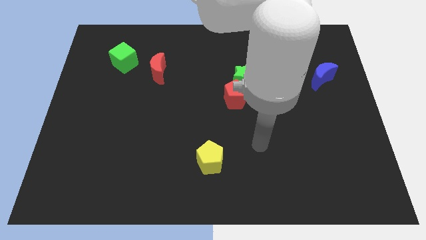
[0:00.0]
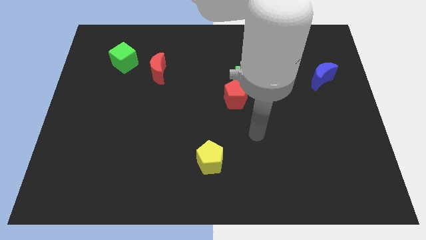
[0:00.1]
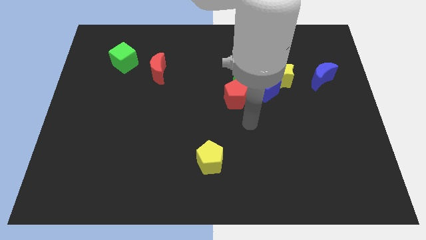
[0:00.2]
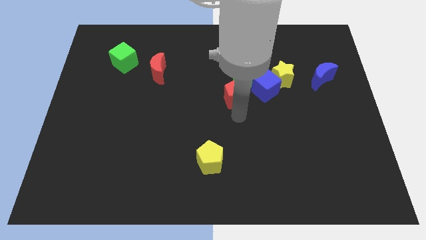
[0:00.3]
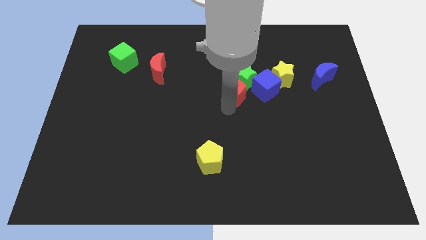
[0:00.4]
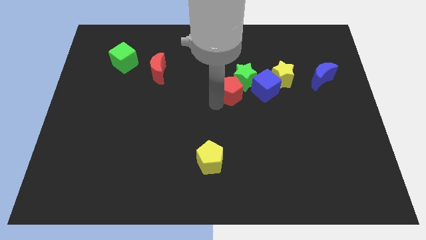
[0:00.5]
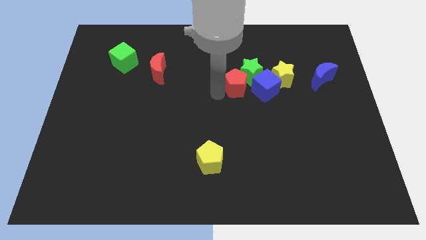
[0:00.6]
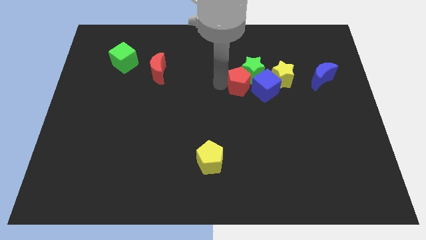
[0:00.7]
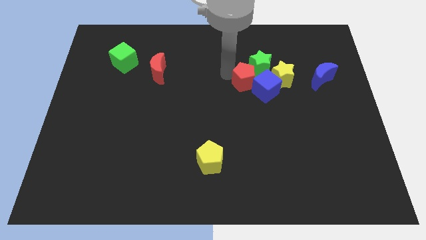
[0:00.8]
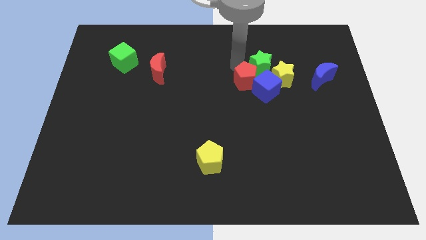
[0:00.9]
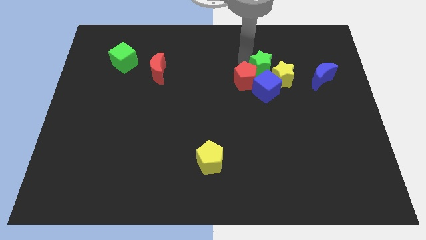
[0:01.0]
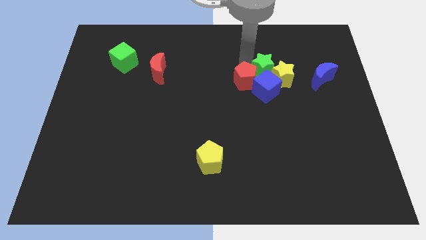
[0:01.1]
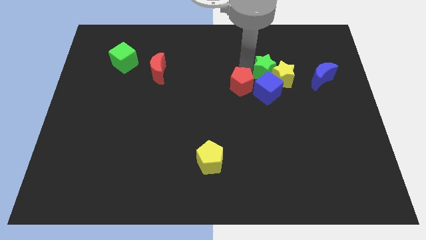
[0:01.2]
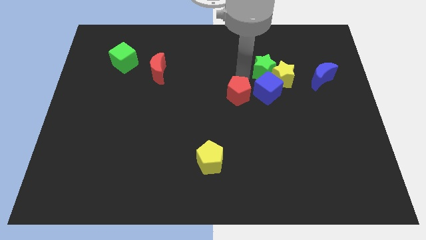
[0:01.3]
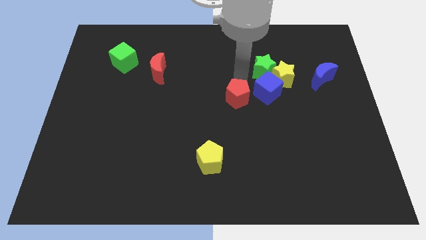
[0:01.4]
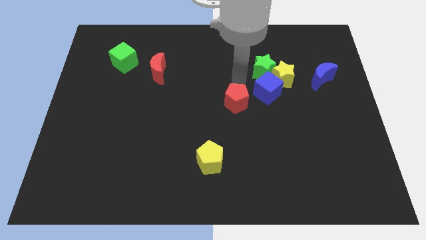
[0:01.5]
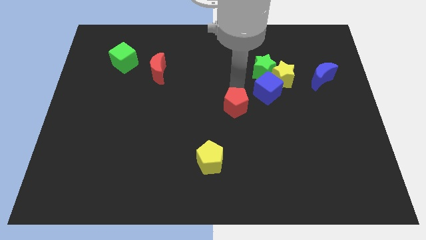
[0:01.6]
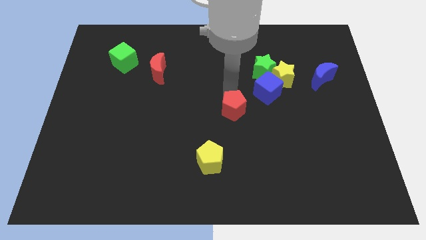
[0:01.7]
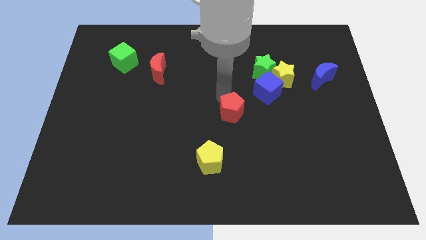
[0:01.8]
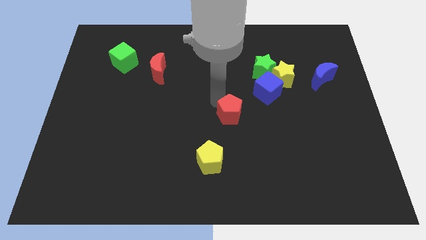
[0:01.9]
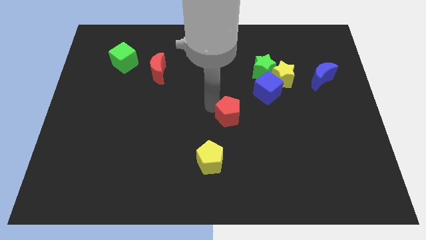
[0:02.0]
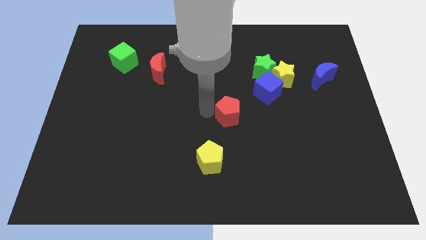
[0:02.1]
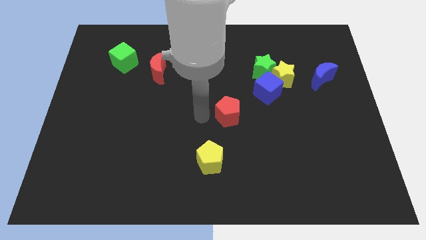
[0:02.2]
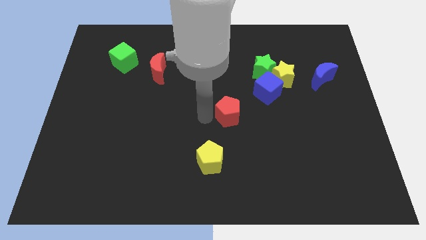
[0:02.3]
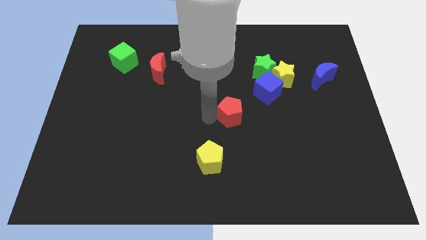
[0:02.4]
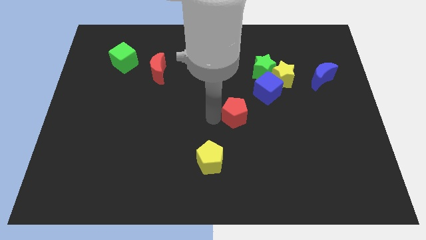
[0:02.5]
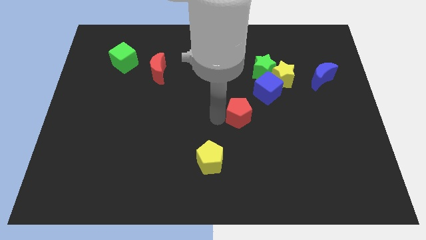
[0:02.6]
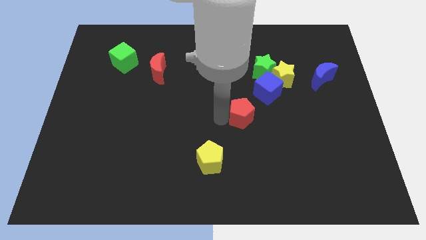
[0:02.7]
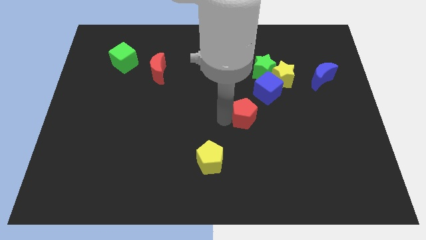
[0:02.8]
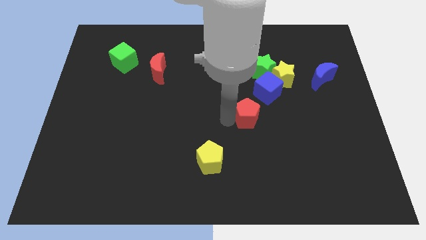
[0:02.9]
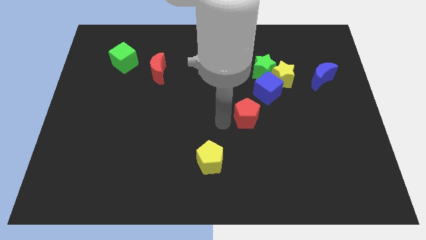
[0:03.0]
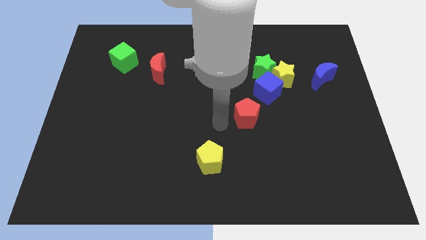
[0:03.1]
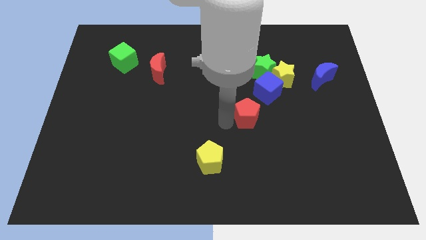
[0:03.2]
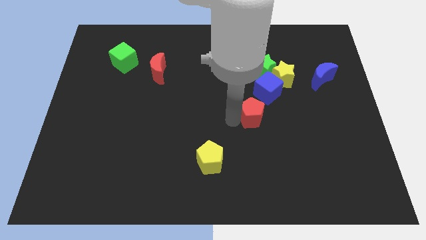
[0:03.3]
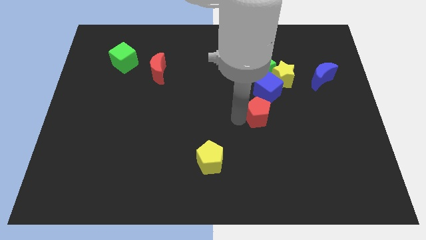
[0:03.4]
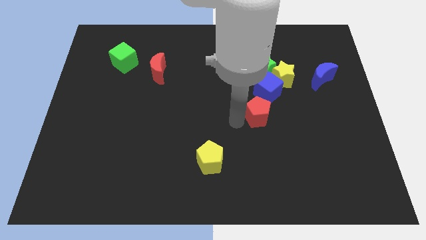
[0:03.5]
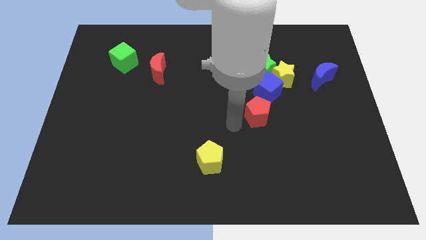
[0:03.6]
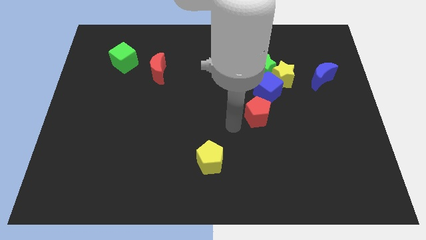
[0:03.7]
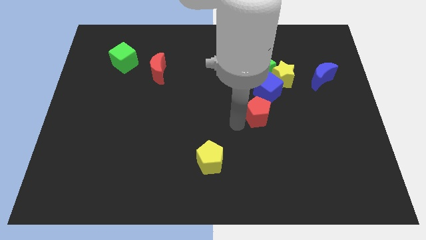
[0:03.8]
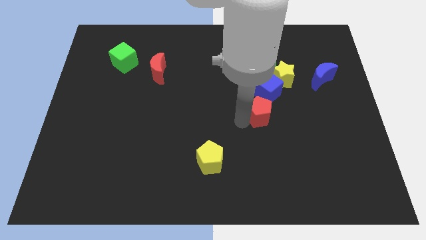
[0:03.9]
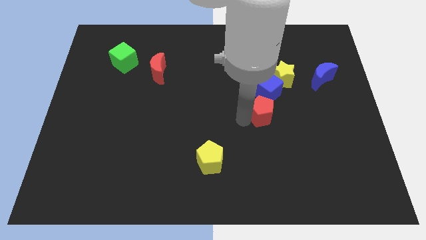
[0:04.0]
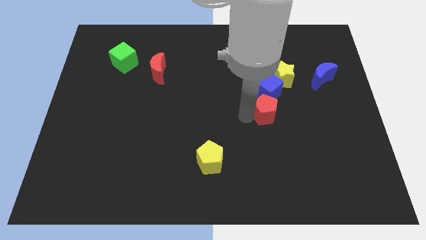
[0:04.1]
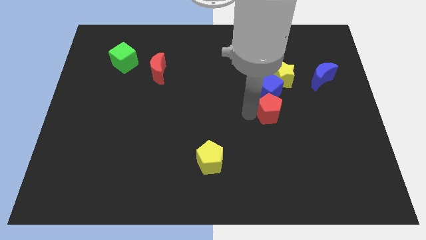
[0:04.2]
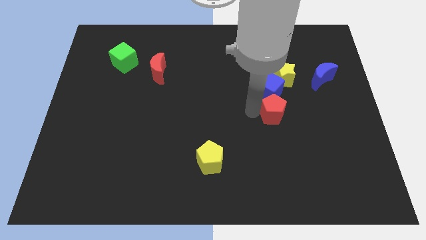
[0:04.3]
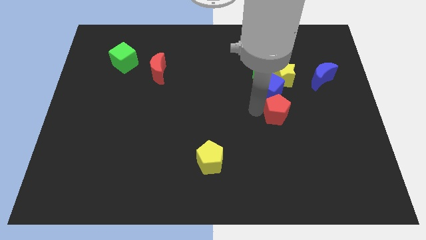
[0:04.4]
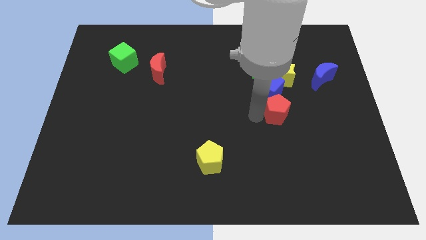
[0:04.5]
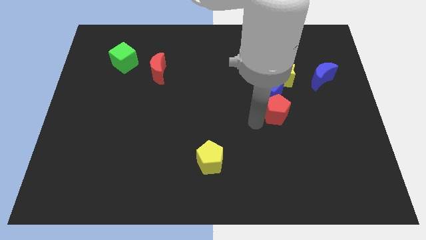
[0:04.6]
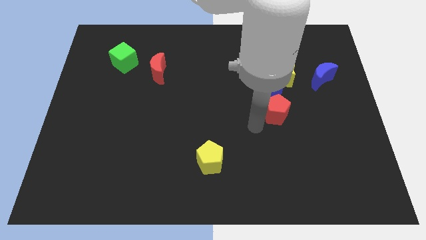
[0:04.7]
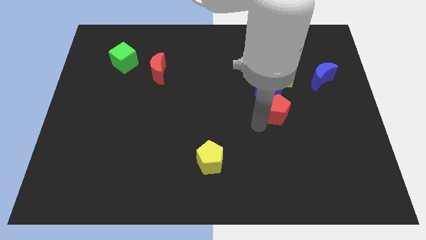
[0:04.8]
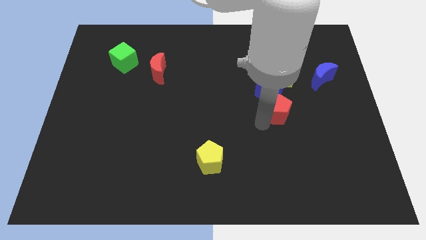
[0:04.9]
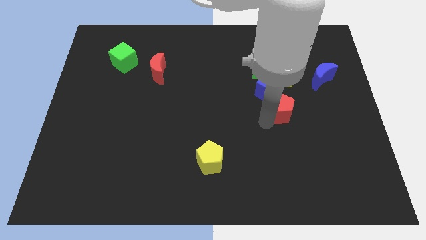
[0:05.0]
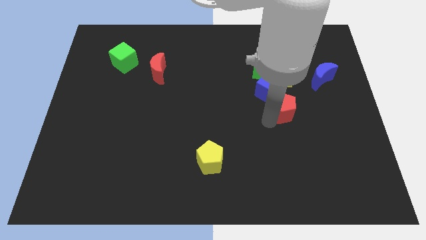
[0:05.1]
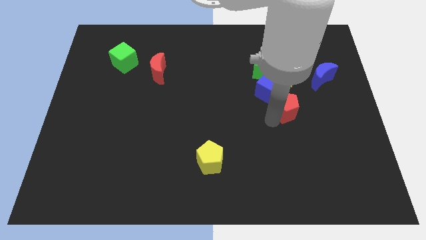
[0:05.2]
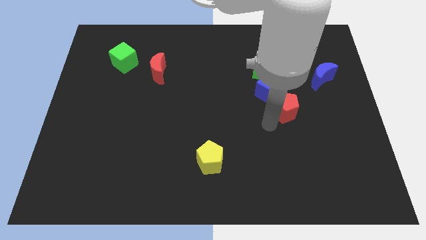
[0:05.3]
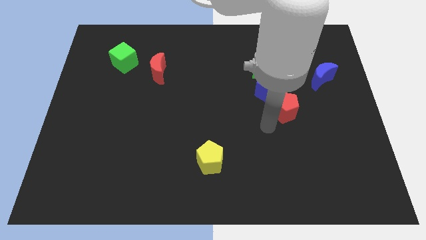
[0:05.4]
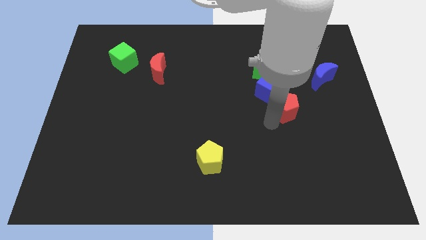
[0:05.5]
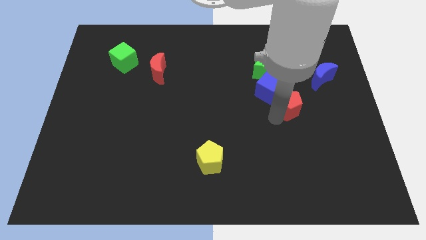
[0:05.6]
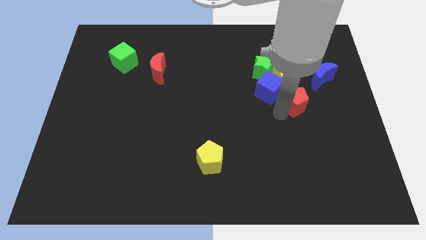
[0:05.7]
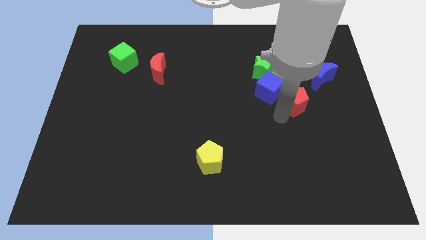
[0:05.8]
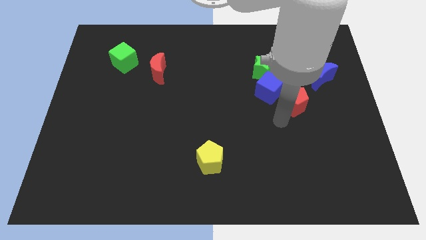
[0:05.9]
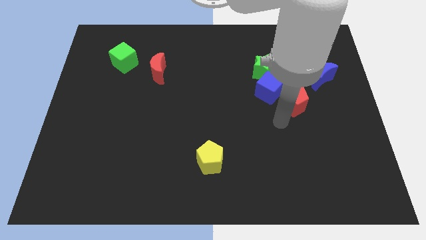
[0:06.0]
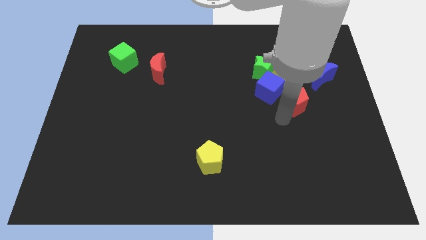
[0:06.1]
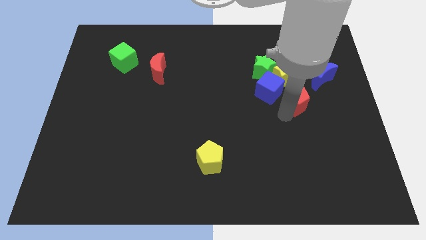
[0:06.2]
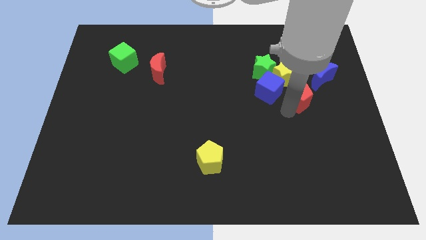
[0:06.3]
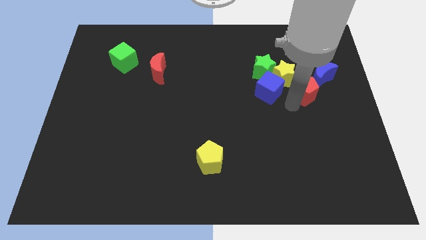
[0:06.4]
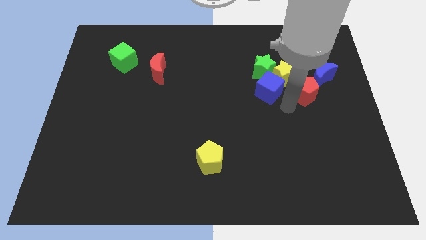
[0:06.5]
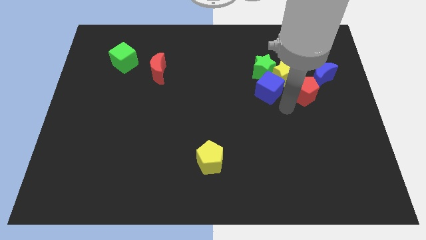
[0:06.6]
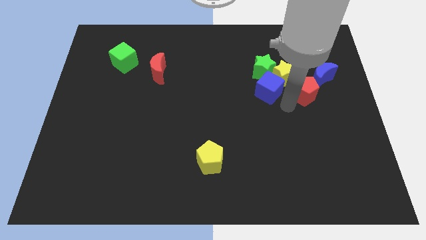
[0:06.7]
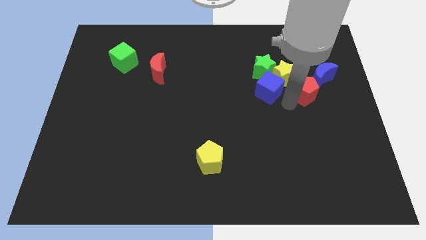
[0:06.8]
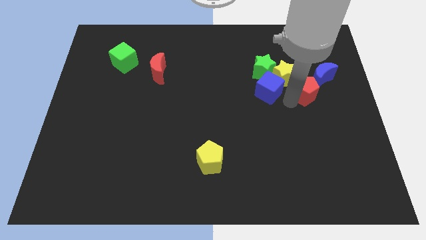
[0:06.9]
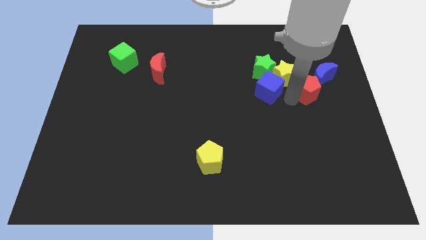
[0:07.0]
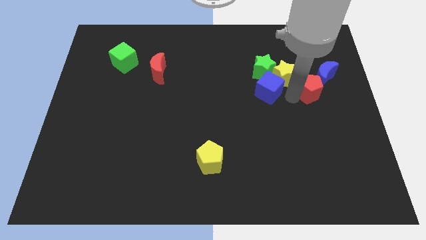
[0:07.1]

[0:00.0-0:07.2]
move the red pentagon towards the blue moon

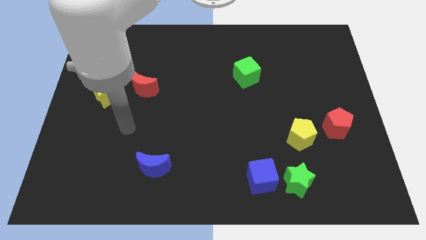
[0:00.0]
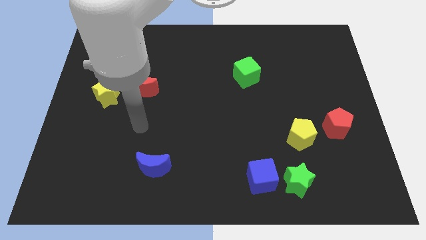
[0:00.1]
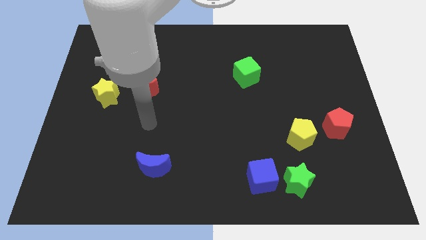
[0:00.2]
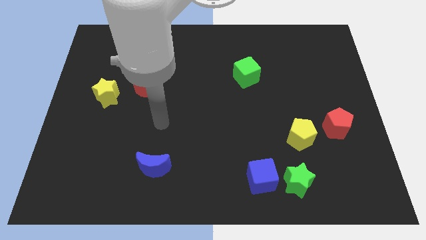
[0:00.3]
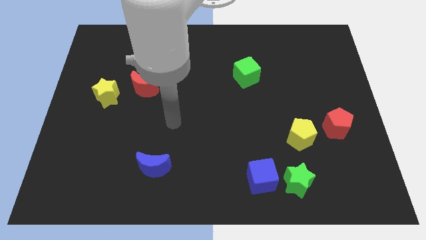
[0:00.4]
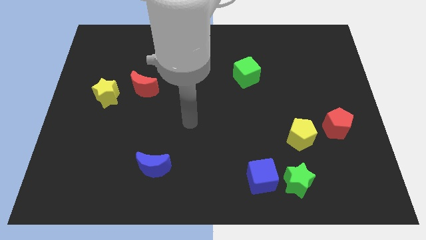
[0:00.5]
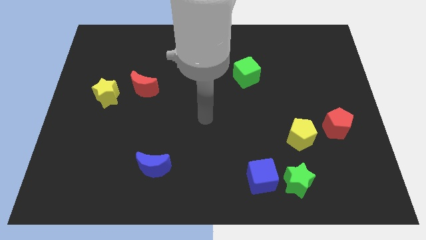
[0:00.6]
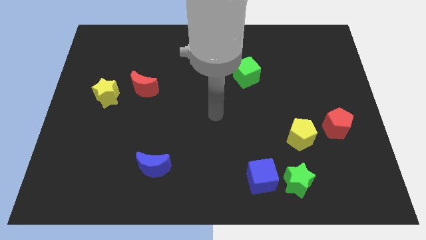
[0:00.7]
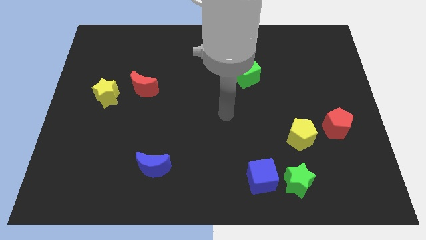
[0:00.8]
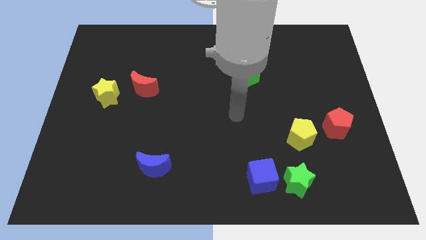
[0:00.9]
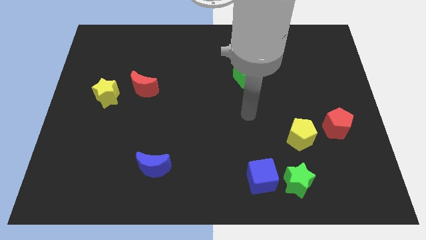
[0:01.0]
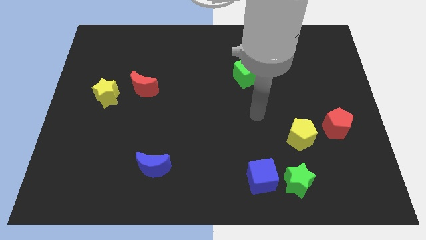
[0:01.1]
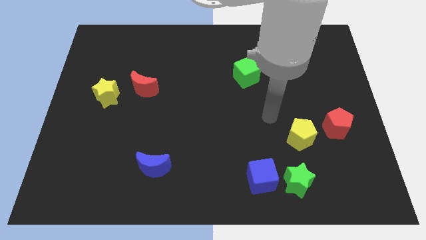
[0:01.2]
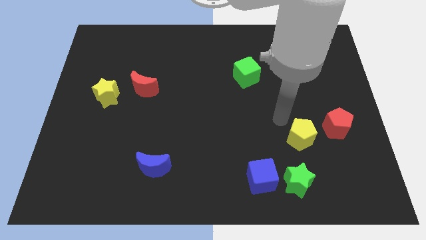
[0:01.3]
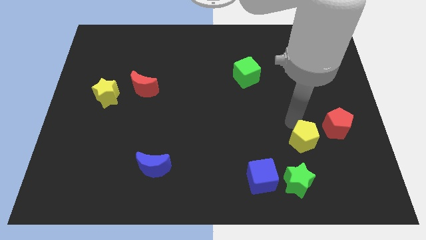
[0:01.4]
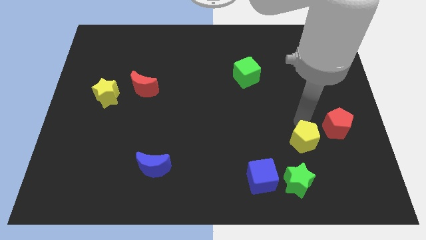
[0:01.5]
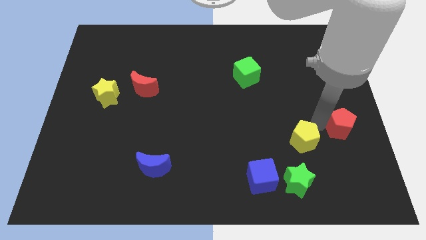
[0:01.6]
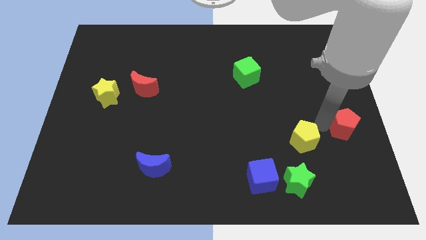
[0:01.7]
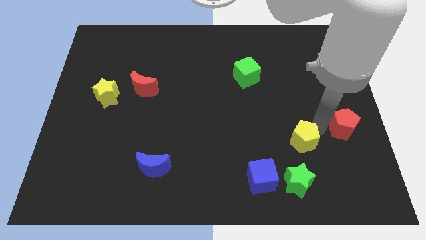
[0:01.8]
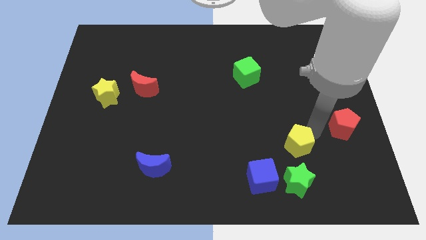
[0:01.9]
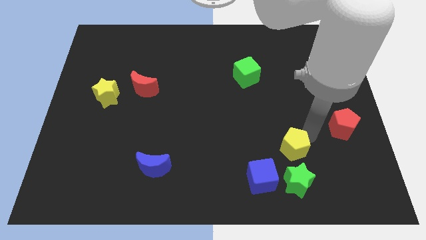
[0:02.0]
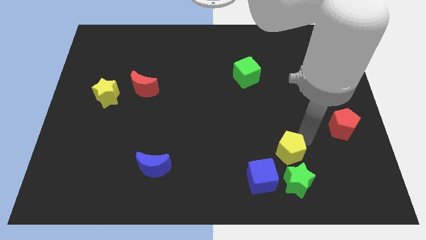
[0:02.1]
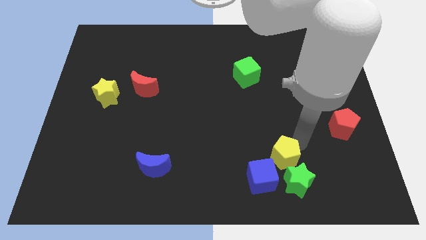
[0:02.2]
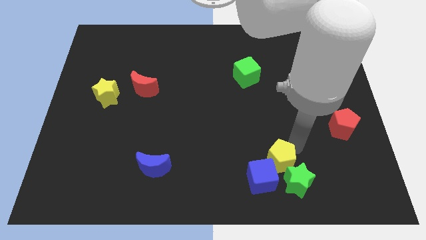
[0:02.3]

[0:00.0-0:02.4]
push the yellow pentagon towards the blue cube
